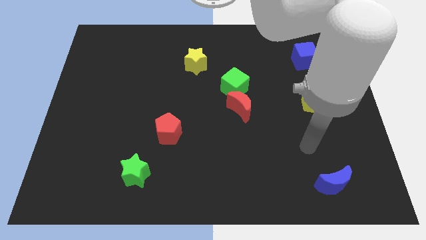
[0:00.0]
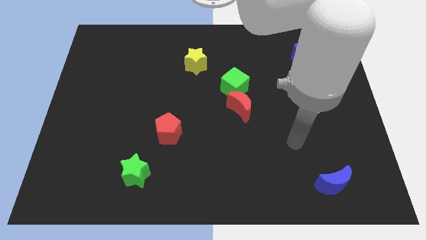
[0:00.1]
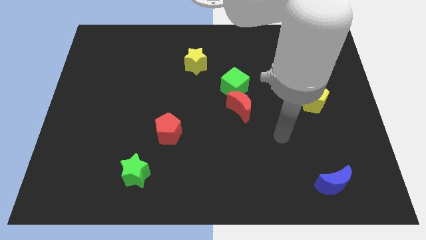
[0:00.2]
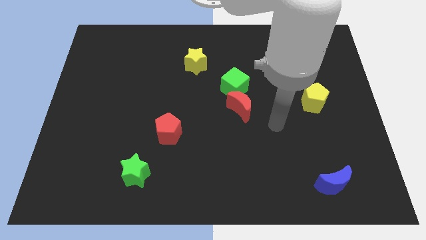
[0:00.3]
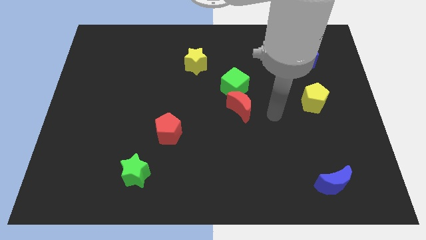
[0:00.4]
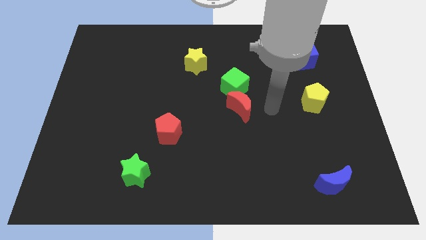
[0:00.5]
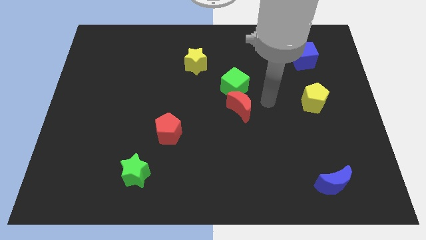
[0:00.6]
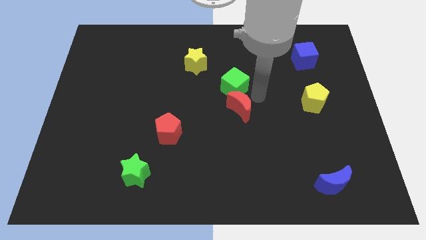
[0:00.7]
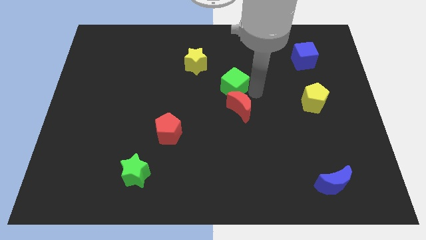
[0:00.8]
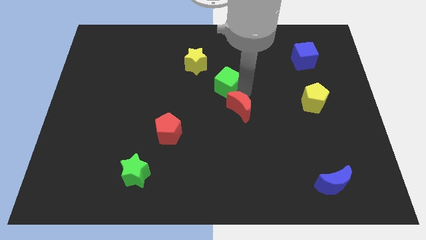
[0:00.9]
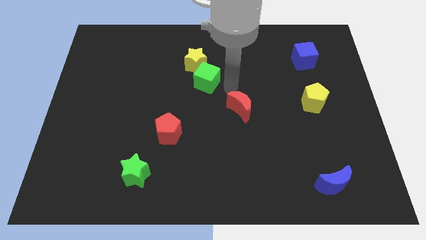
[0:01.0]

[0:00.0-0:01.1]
pull the red moon apart from the green cube

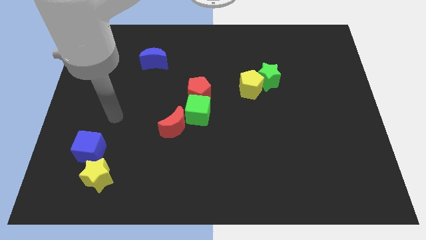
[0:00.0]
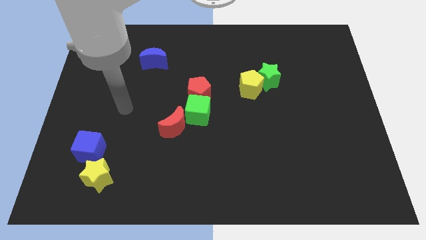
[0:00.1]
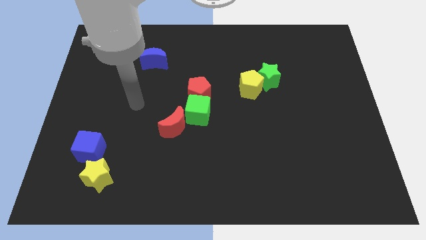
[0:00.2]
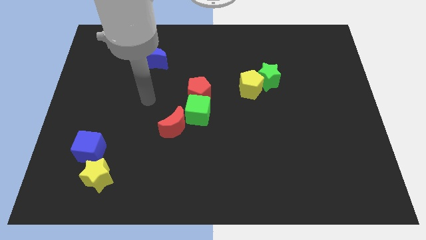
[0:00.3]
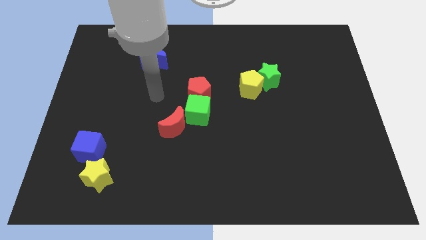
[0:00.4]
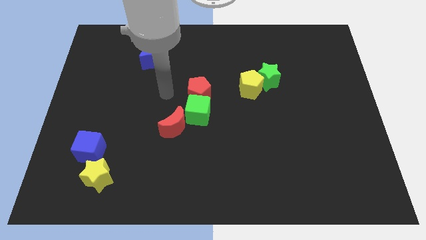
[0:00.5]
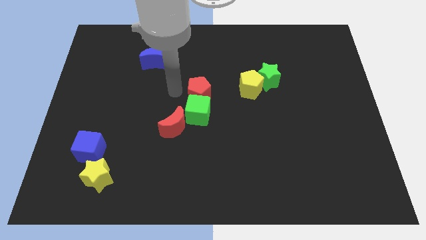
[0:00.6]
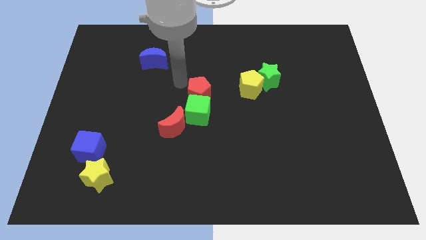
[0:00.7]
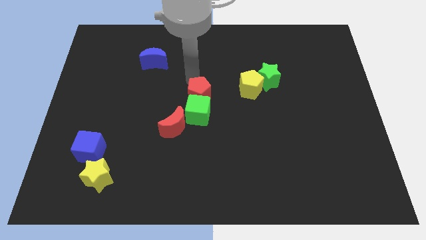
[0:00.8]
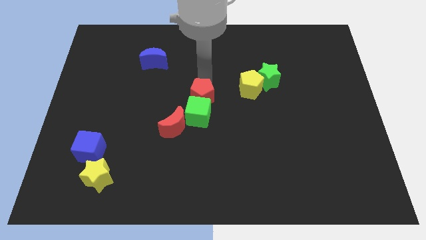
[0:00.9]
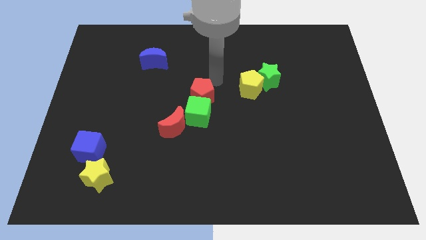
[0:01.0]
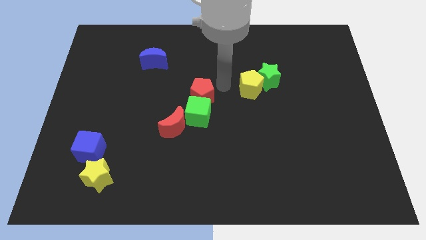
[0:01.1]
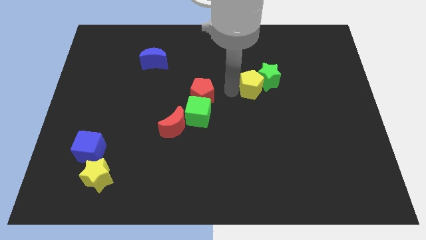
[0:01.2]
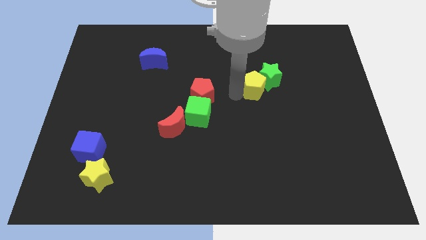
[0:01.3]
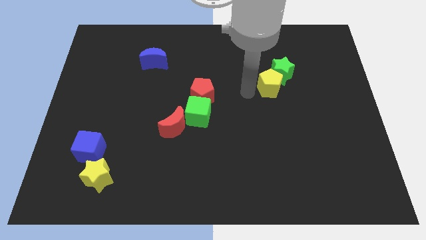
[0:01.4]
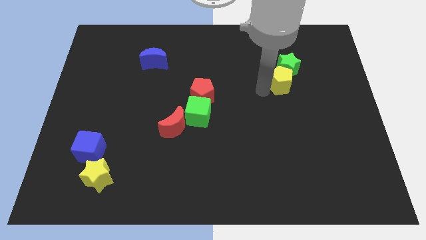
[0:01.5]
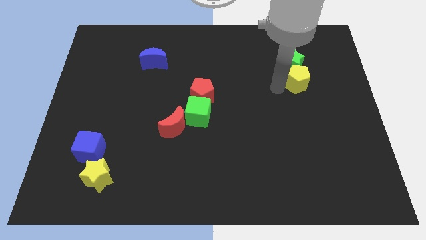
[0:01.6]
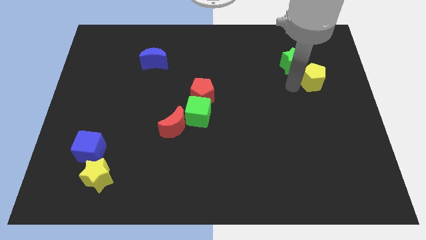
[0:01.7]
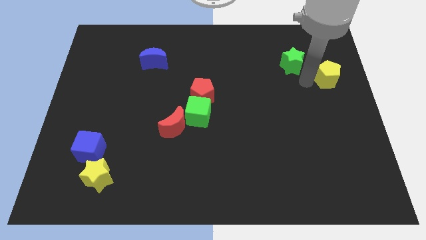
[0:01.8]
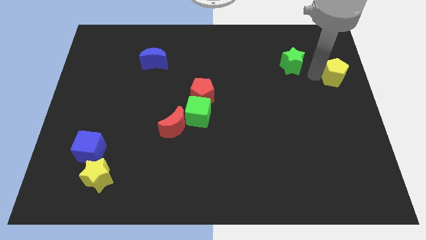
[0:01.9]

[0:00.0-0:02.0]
pull the green star apart from the yellow pentagon

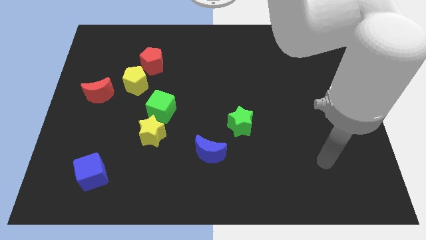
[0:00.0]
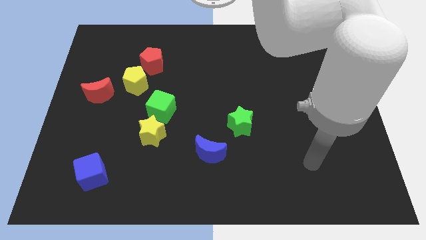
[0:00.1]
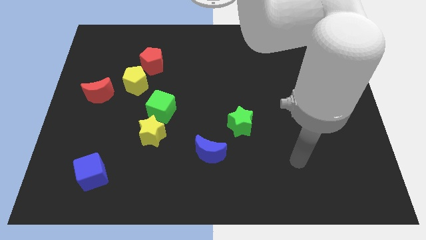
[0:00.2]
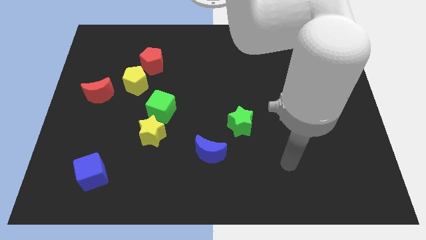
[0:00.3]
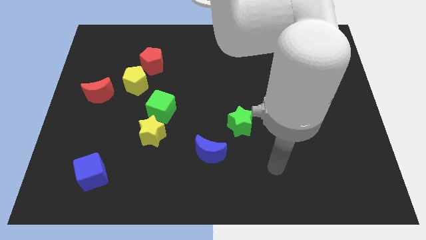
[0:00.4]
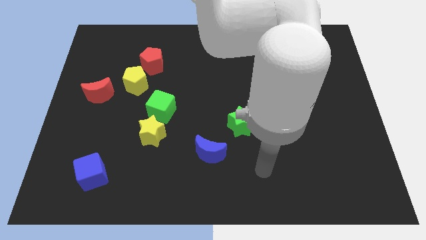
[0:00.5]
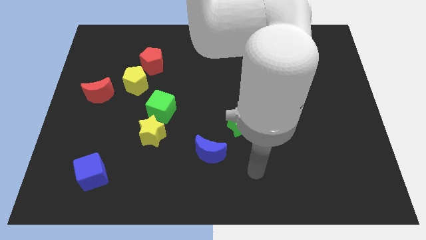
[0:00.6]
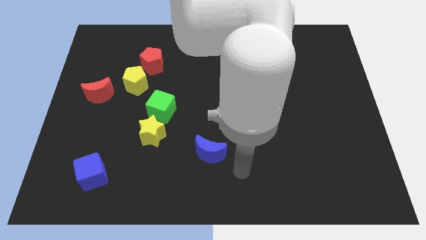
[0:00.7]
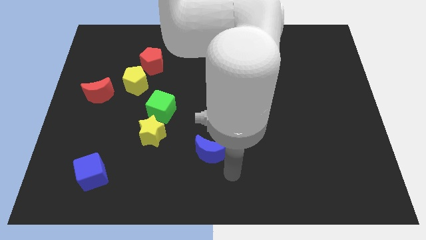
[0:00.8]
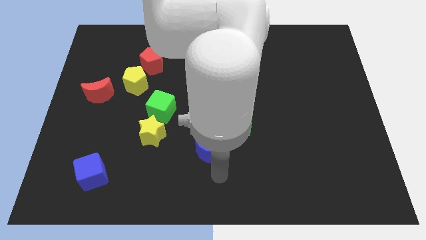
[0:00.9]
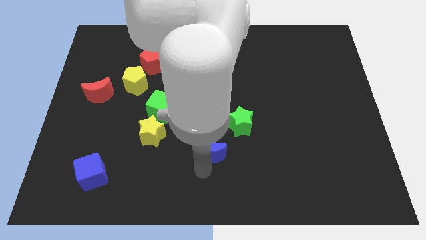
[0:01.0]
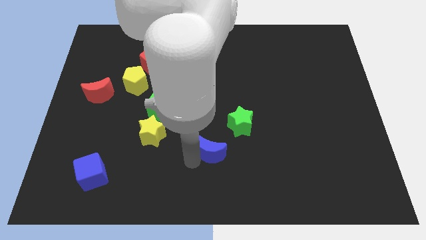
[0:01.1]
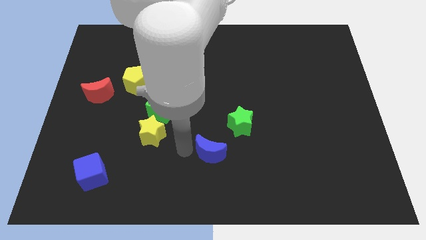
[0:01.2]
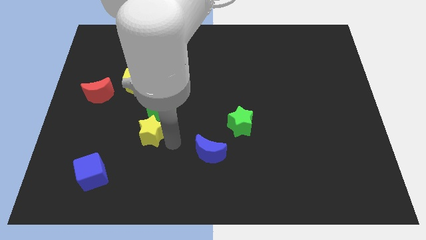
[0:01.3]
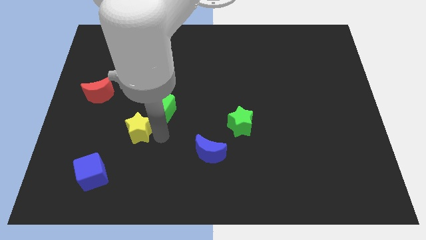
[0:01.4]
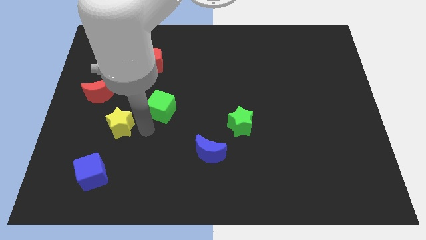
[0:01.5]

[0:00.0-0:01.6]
separate the green cube from the yellow star

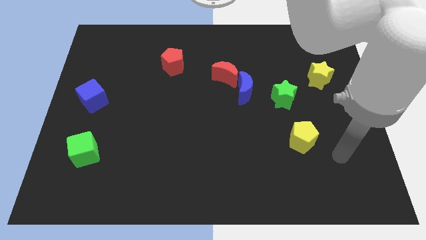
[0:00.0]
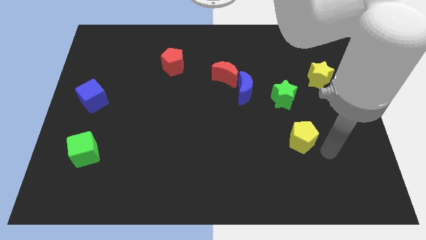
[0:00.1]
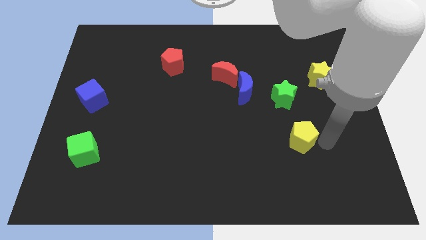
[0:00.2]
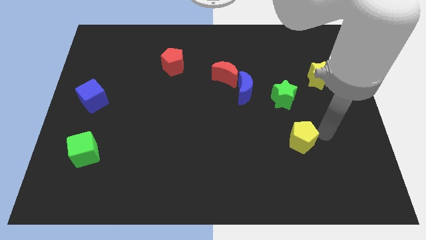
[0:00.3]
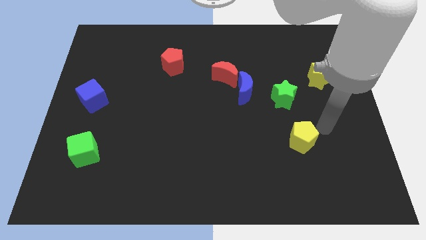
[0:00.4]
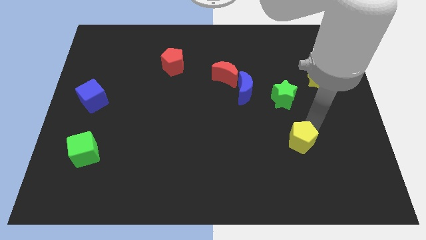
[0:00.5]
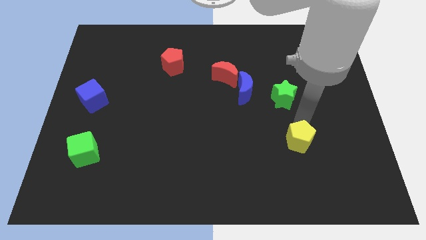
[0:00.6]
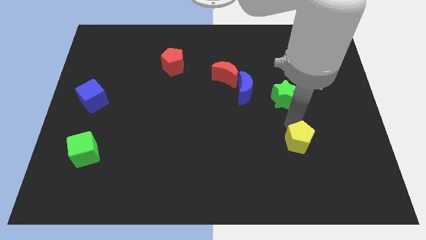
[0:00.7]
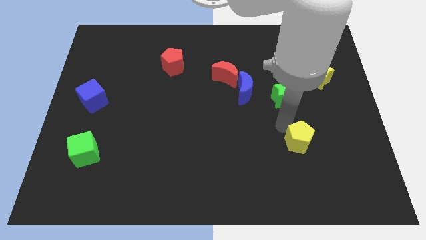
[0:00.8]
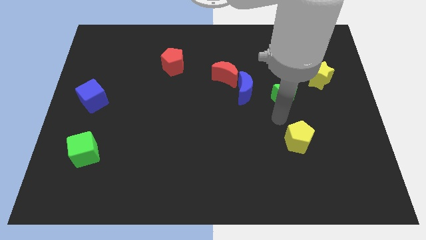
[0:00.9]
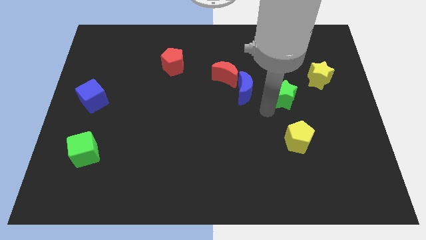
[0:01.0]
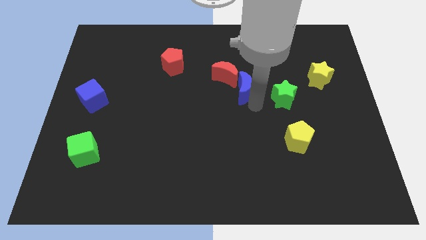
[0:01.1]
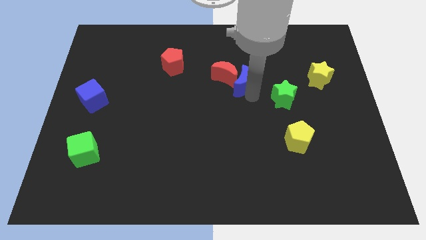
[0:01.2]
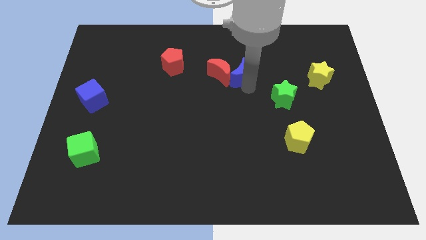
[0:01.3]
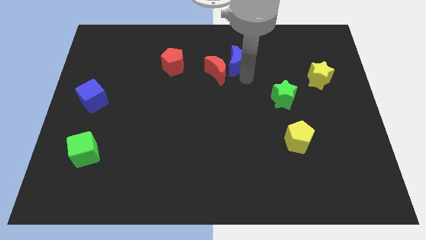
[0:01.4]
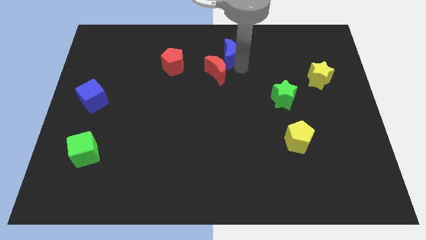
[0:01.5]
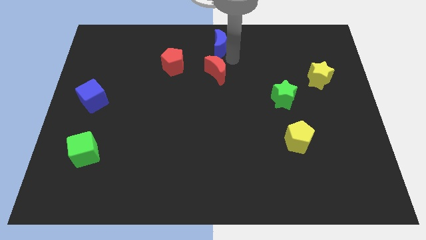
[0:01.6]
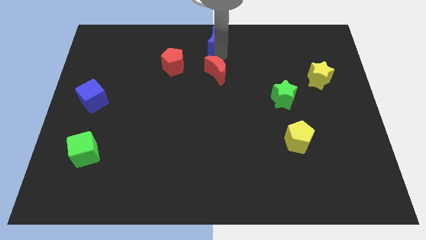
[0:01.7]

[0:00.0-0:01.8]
pull the red moon apart from the blue moon

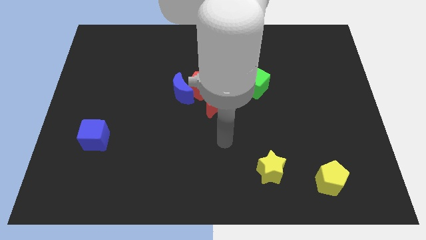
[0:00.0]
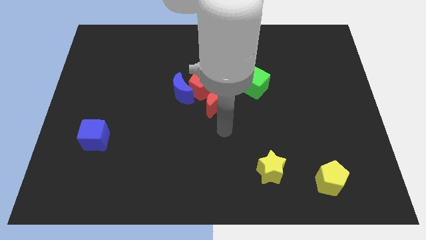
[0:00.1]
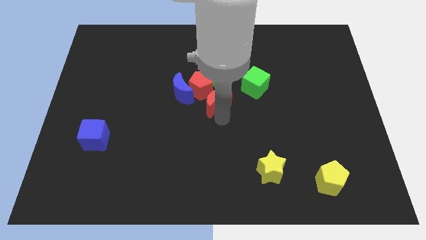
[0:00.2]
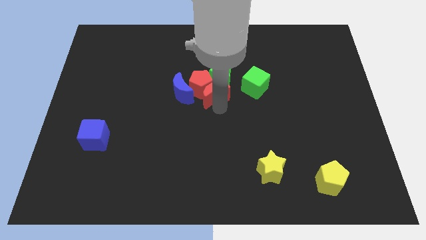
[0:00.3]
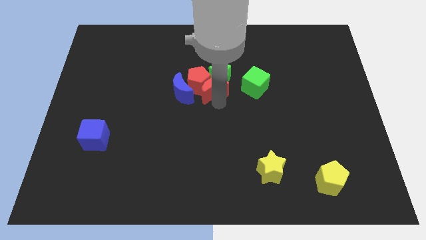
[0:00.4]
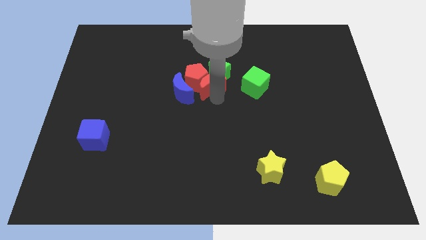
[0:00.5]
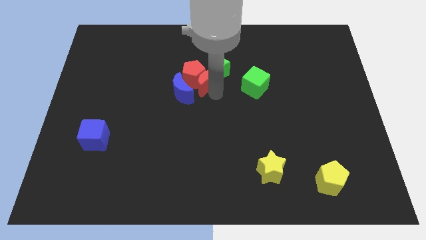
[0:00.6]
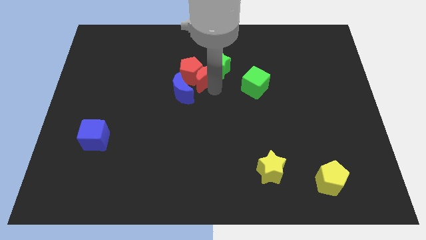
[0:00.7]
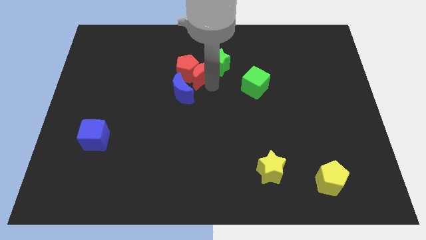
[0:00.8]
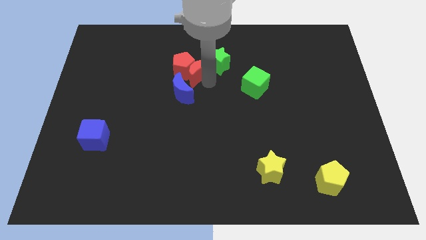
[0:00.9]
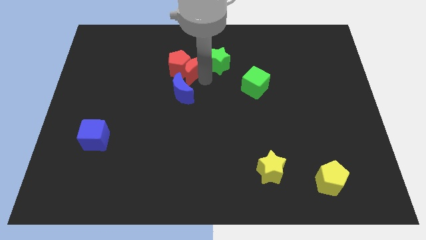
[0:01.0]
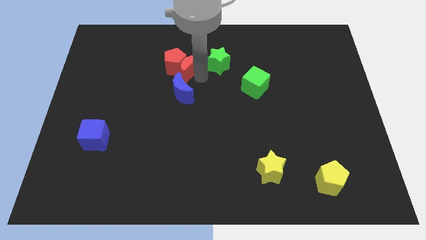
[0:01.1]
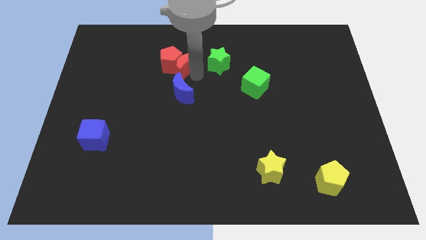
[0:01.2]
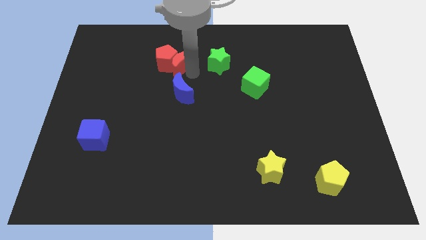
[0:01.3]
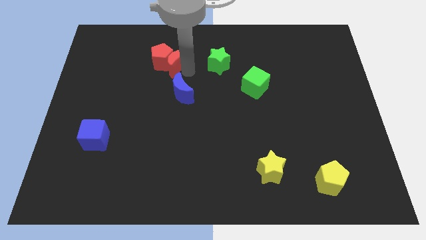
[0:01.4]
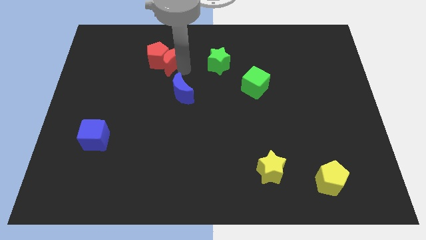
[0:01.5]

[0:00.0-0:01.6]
separate the red pentagon from the blue moon, green star, and red moon

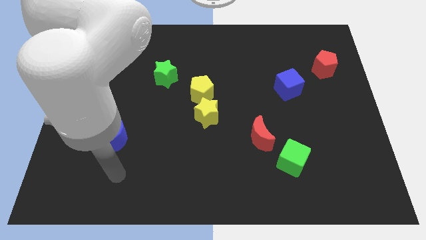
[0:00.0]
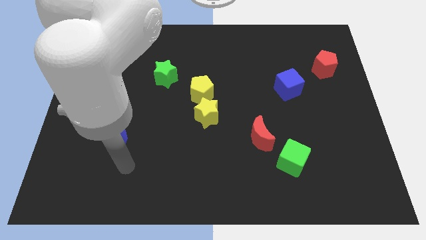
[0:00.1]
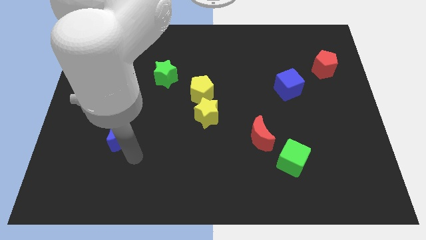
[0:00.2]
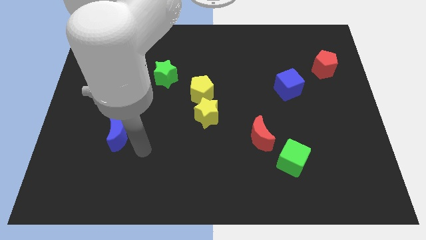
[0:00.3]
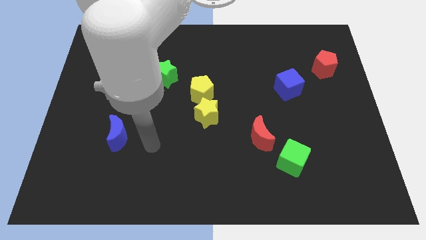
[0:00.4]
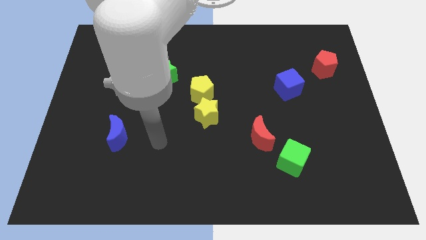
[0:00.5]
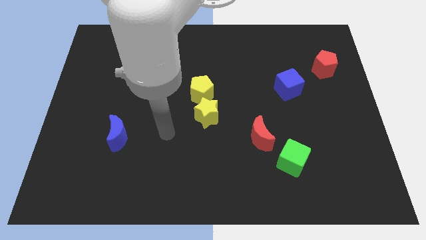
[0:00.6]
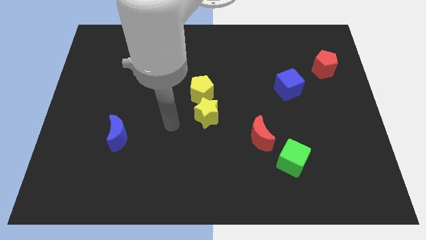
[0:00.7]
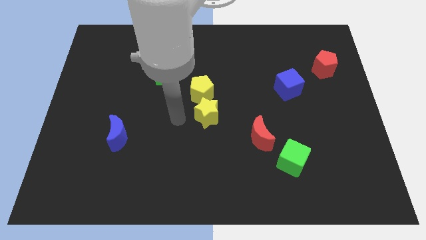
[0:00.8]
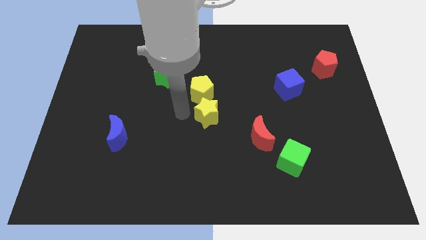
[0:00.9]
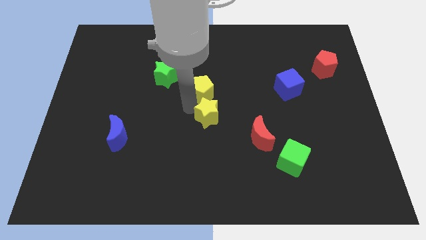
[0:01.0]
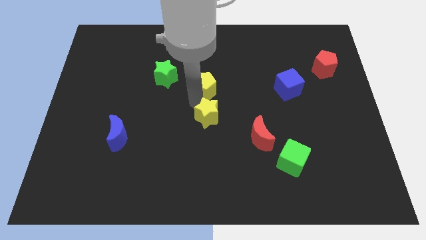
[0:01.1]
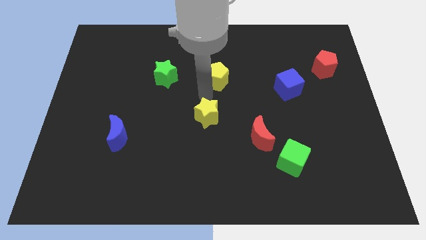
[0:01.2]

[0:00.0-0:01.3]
move the yellow star away from the yellow pentagon

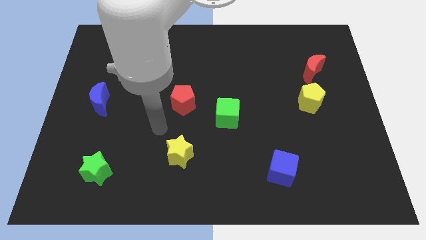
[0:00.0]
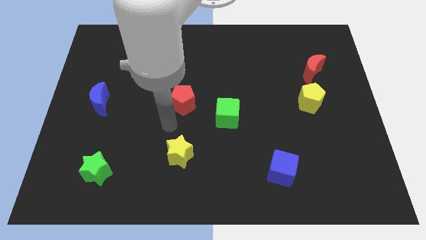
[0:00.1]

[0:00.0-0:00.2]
separate the red moon from the yellow pentagon
